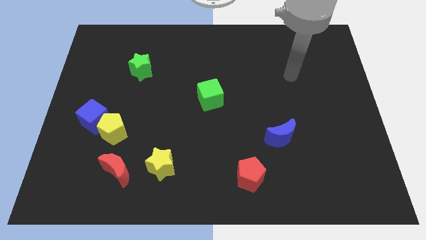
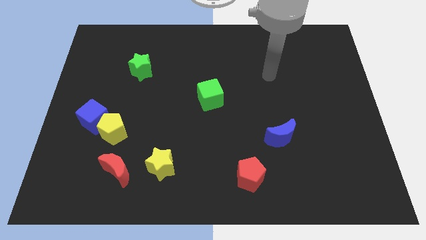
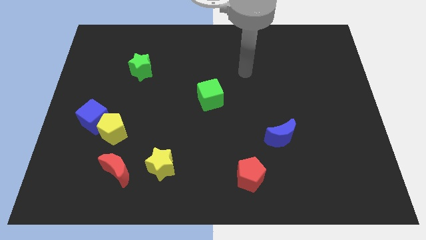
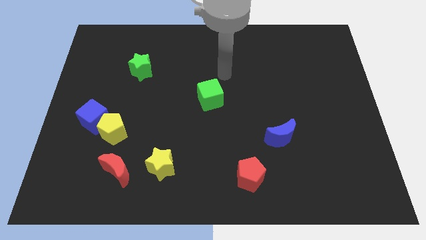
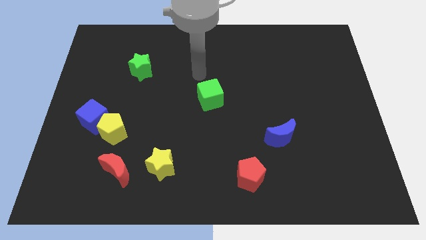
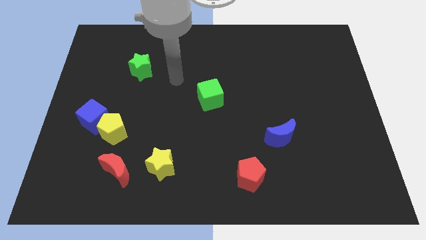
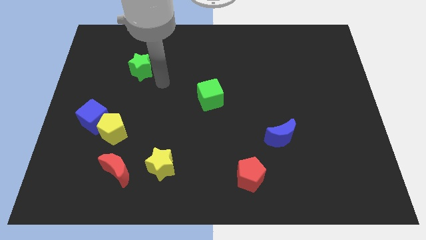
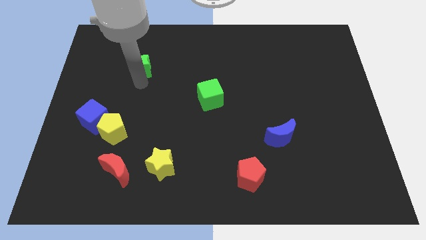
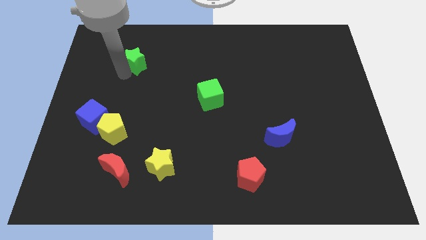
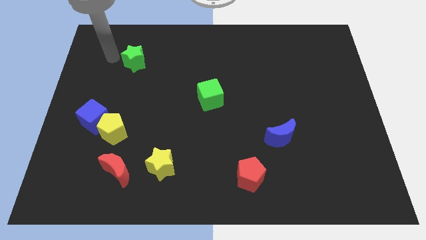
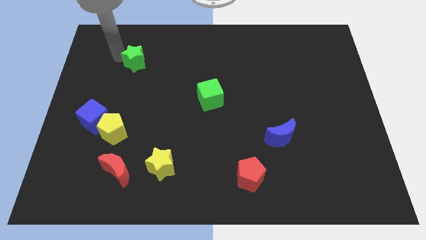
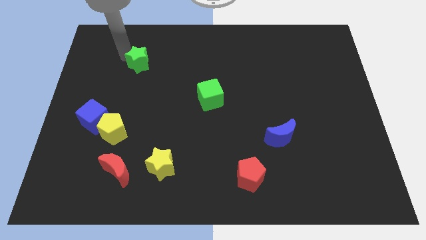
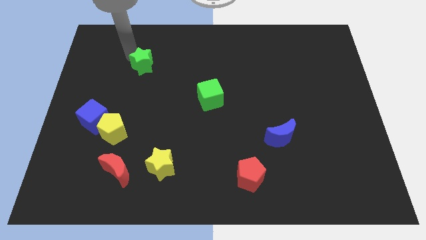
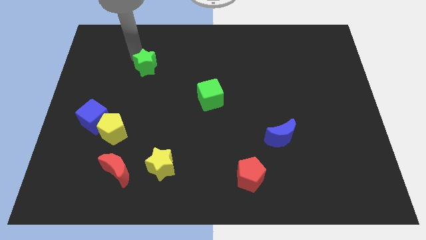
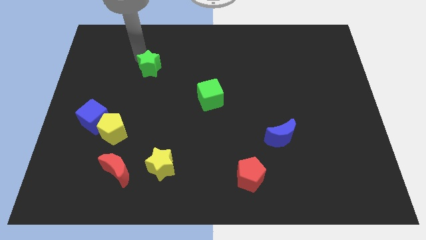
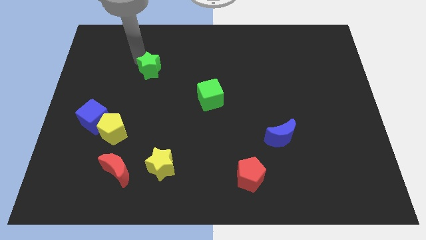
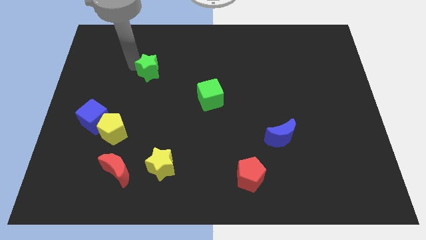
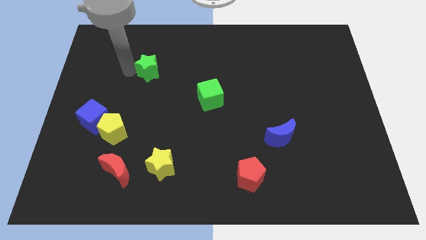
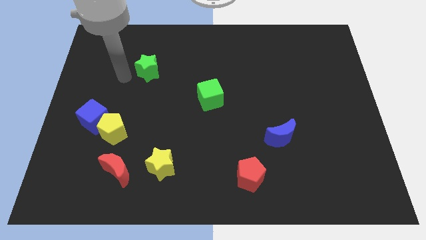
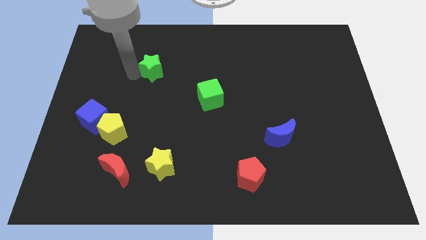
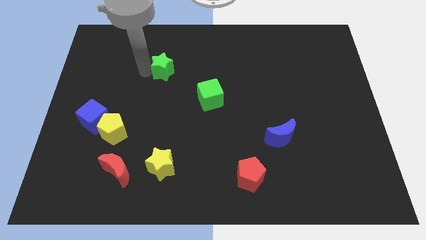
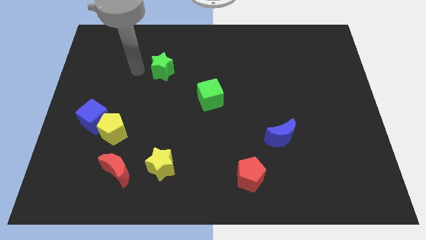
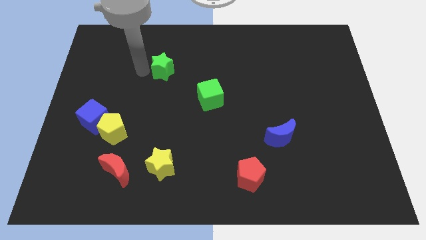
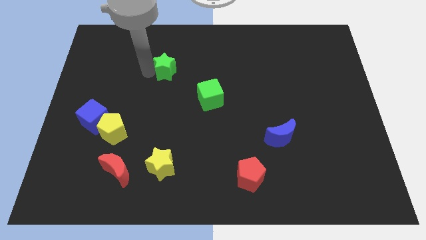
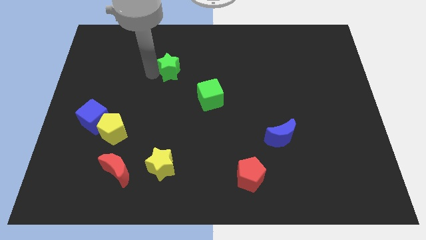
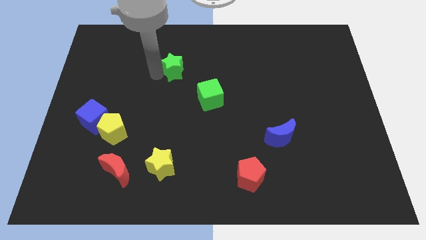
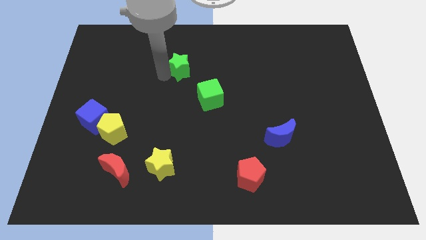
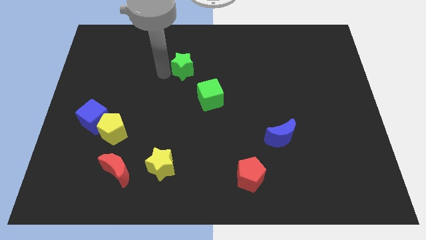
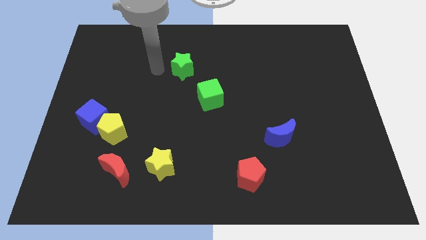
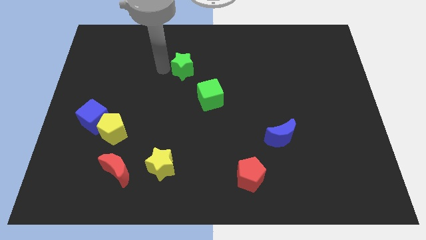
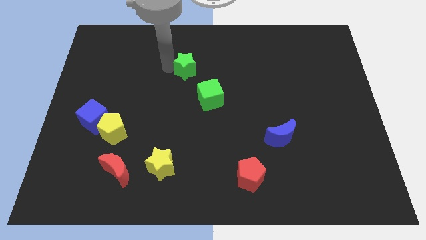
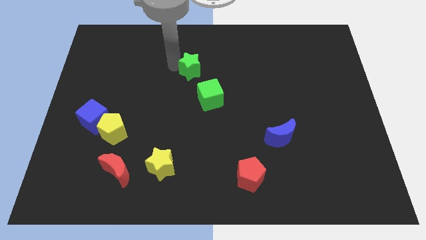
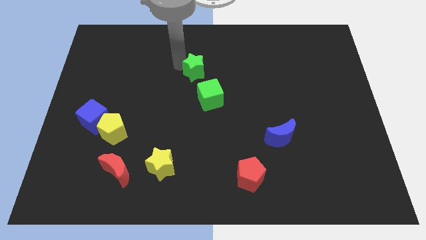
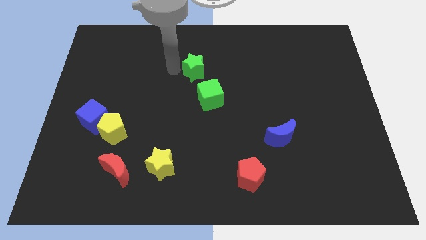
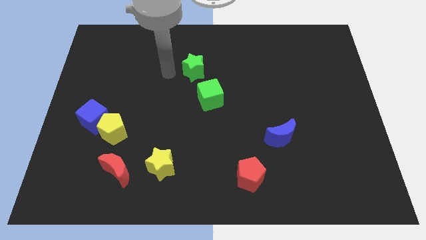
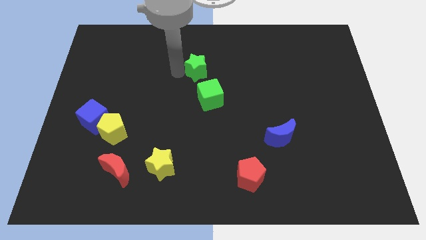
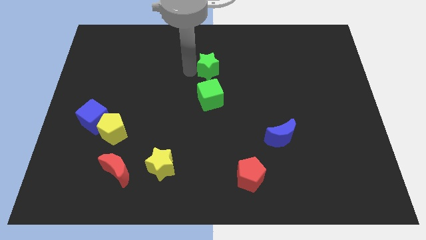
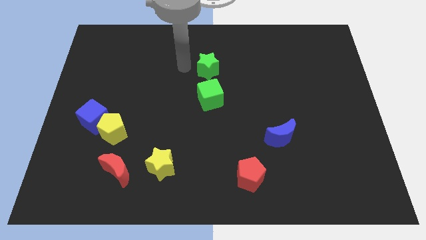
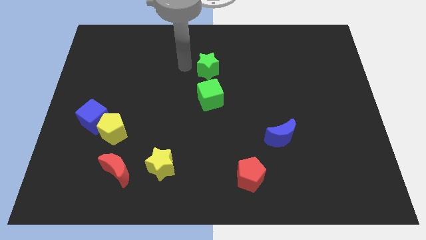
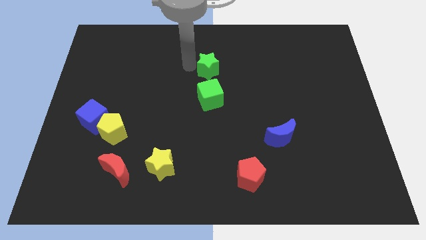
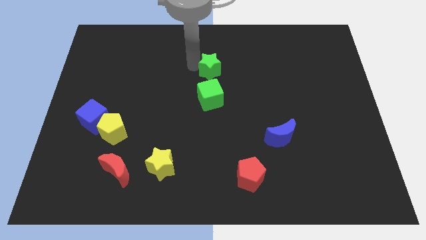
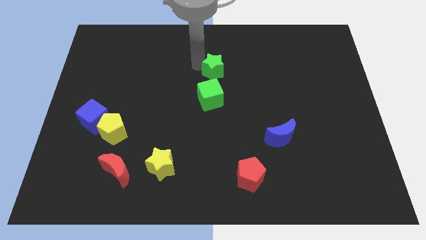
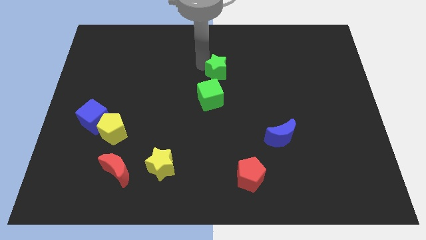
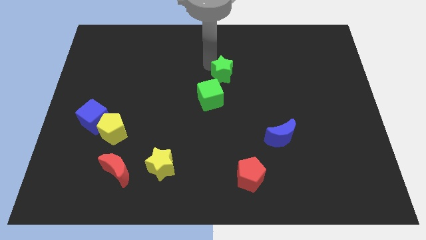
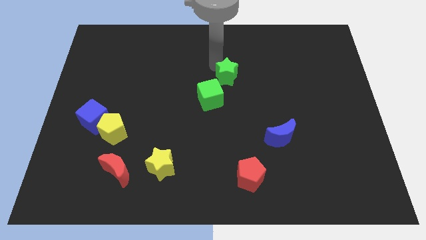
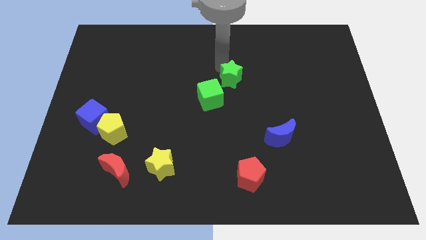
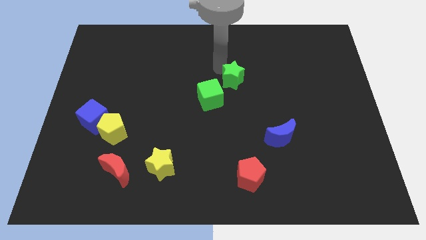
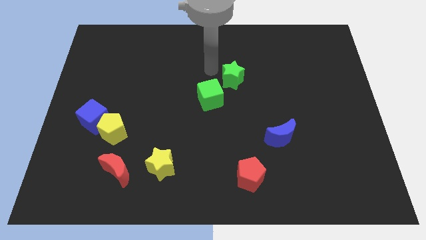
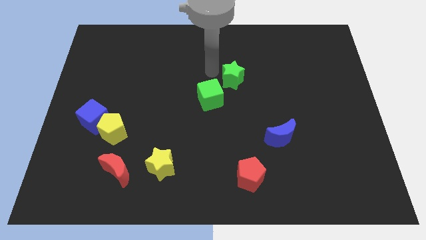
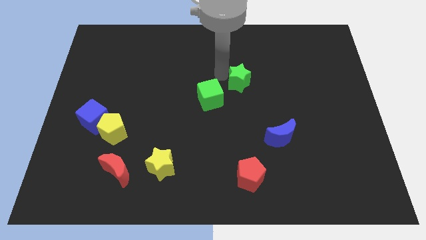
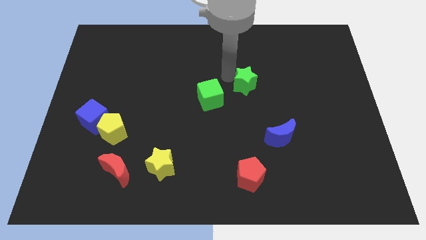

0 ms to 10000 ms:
put the green star just right of the green cube

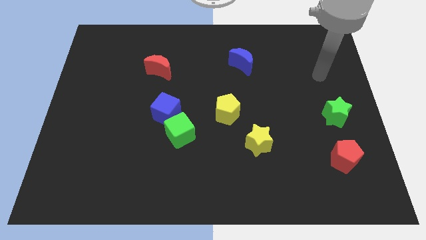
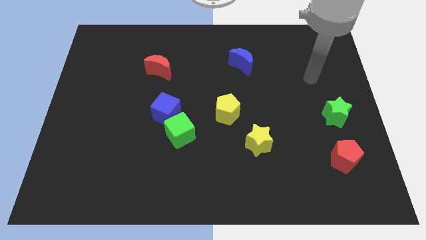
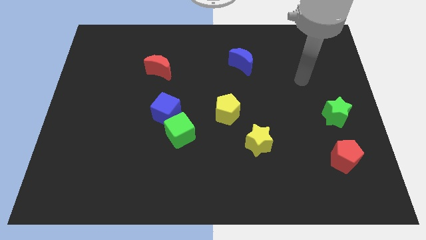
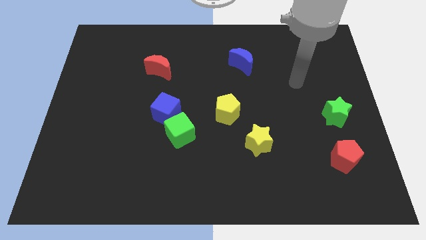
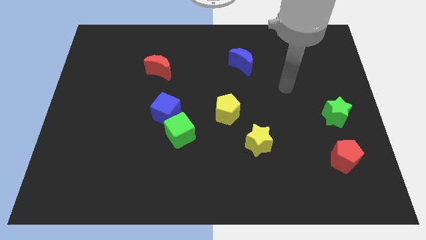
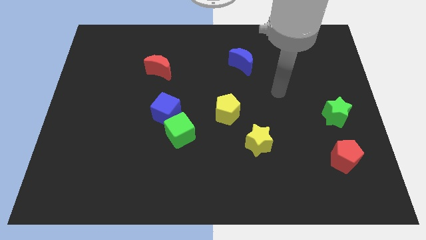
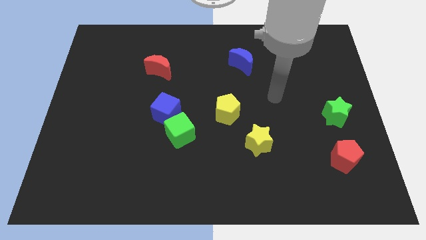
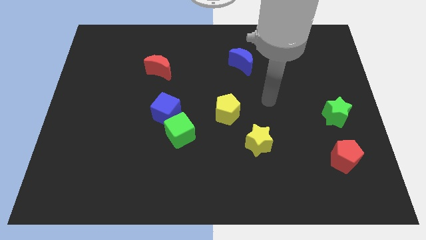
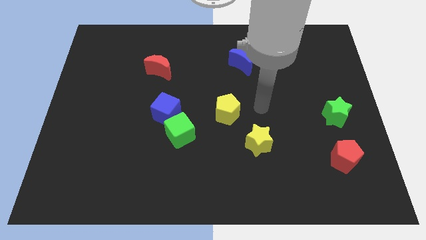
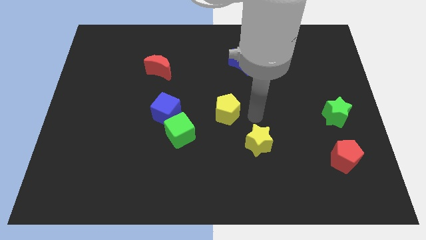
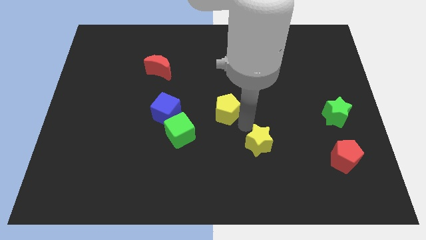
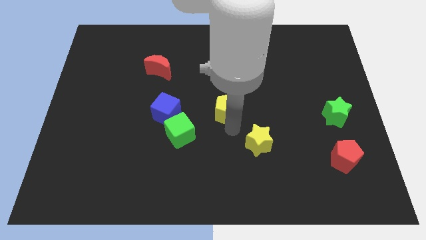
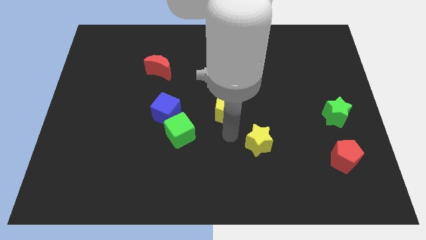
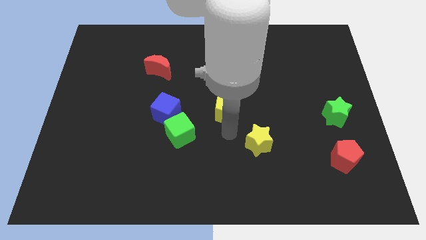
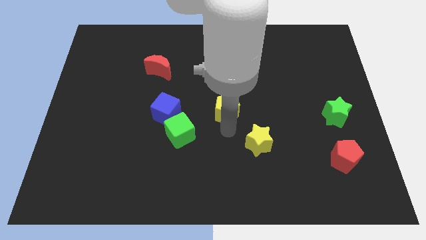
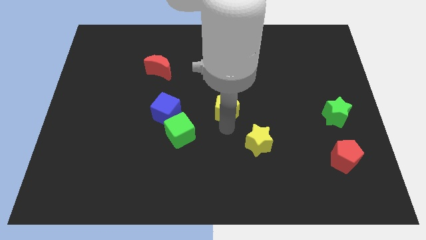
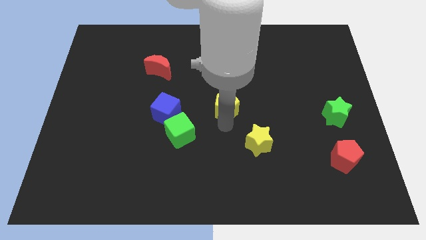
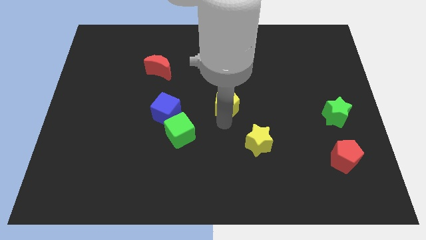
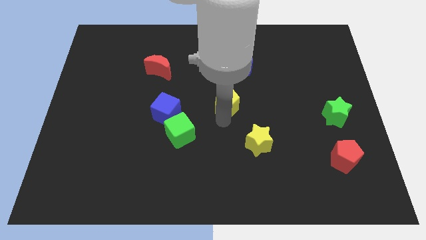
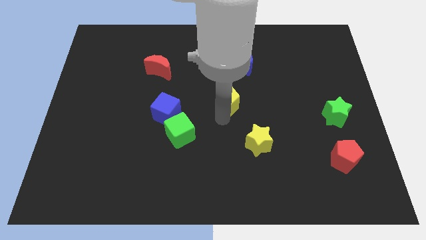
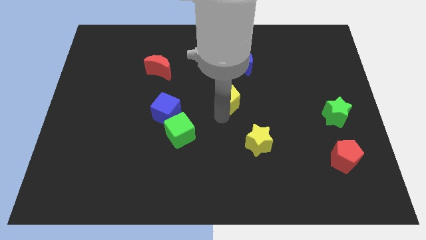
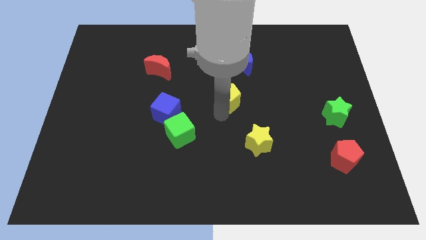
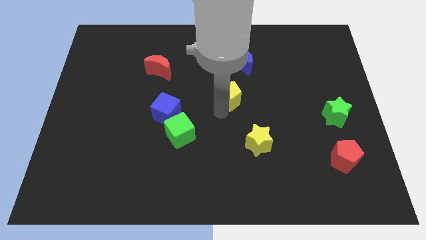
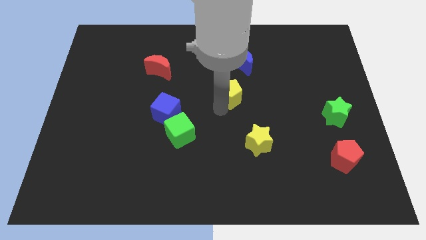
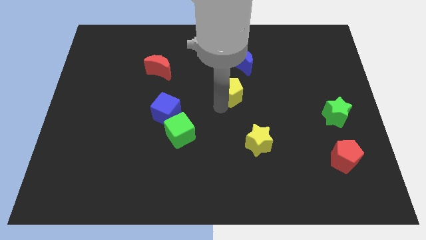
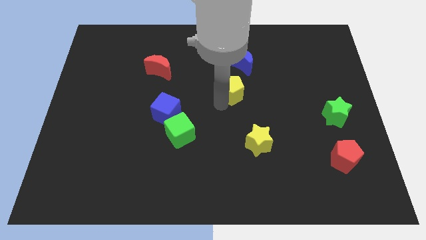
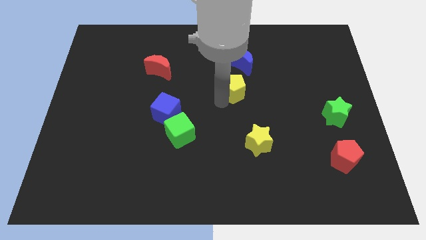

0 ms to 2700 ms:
put the yellow pentagon to the bottom left of the blue moon
